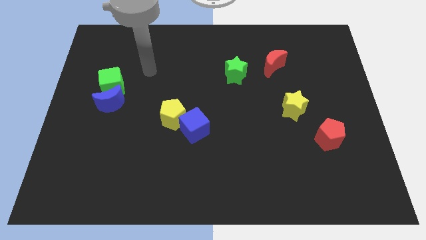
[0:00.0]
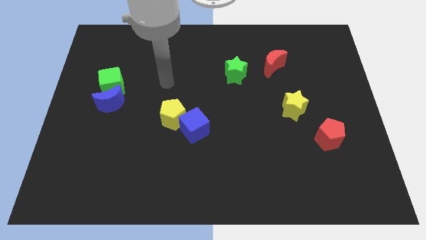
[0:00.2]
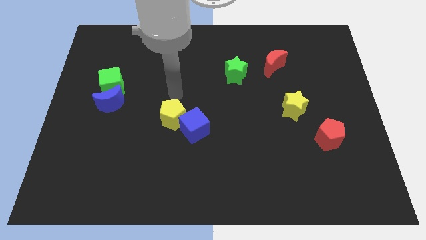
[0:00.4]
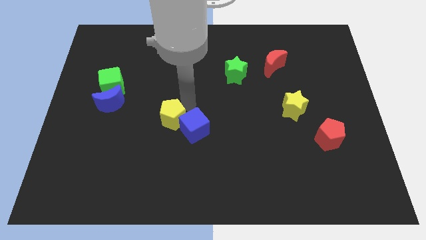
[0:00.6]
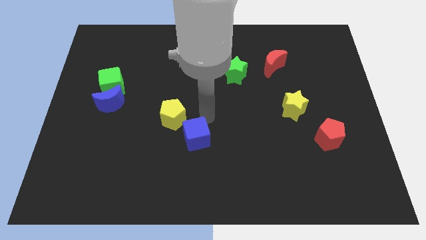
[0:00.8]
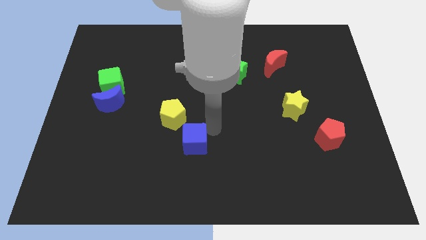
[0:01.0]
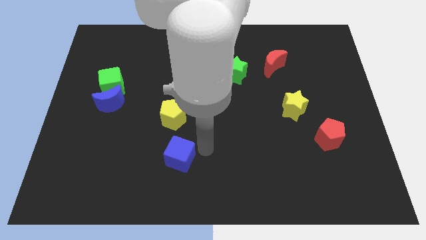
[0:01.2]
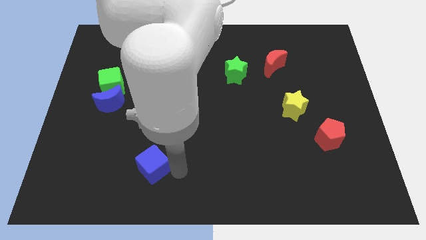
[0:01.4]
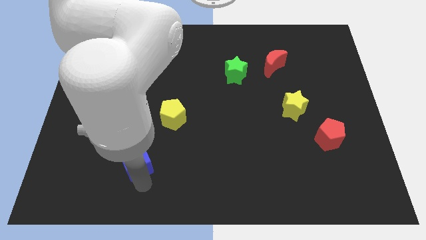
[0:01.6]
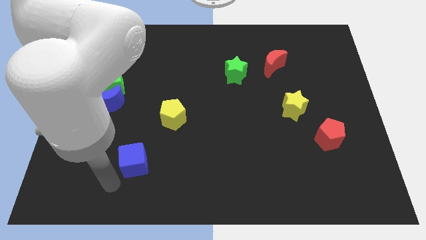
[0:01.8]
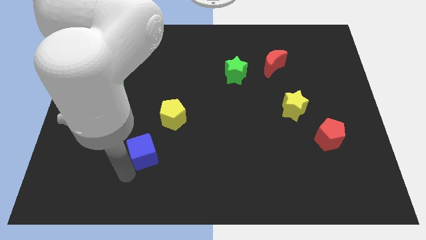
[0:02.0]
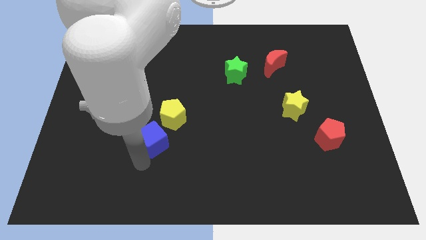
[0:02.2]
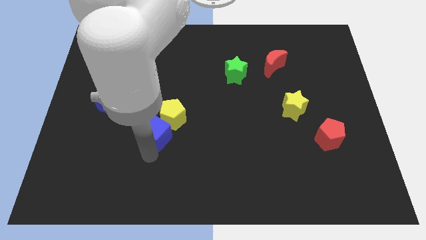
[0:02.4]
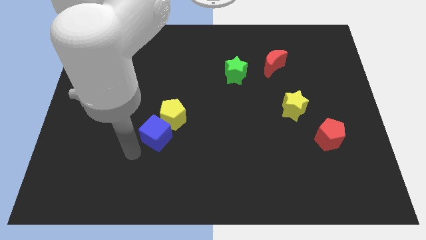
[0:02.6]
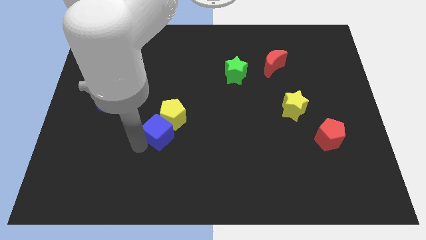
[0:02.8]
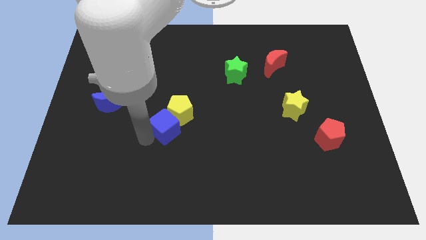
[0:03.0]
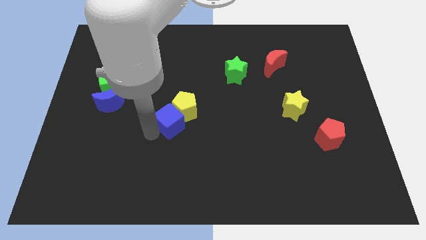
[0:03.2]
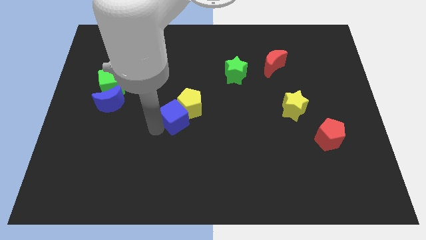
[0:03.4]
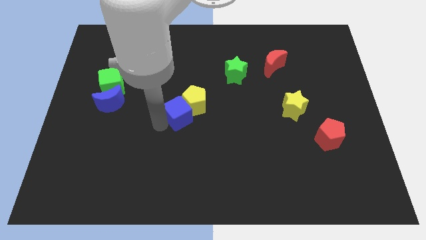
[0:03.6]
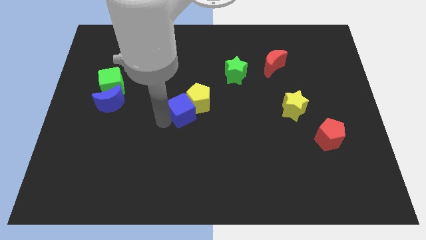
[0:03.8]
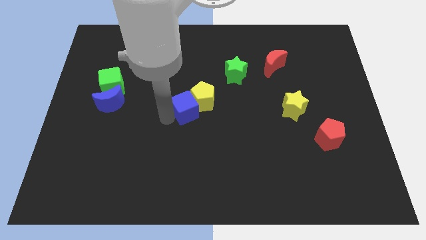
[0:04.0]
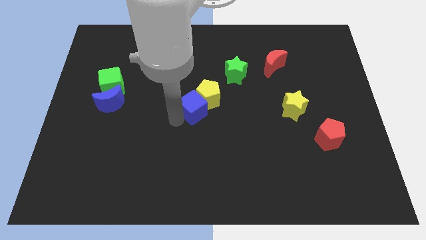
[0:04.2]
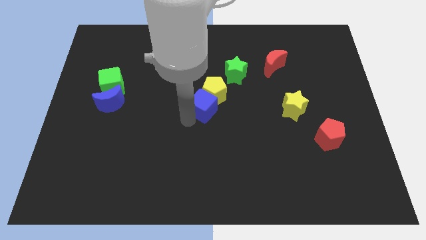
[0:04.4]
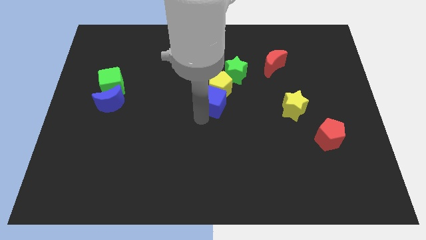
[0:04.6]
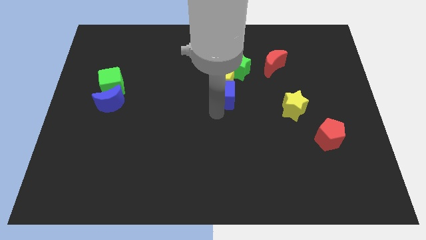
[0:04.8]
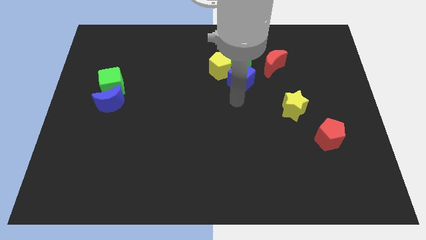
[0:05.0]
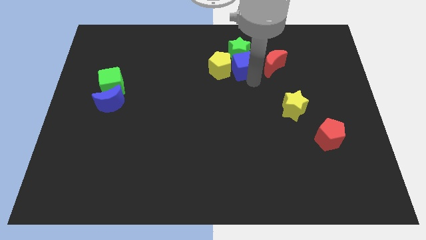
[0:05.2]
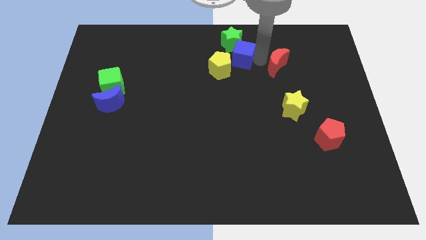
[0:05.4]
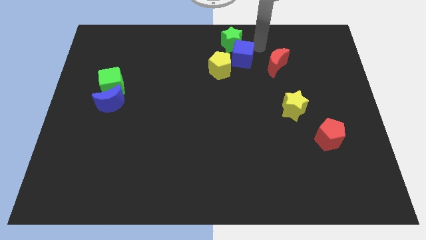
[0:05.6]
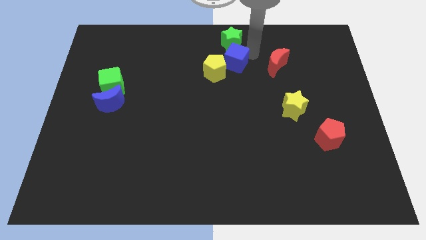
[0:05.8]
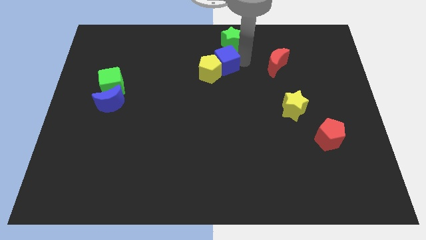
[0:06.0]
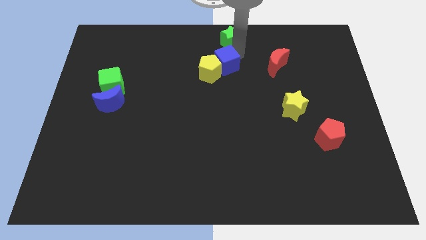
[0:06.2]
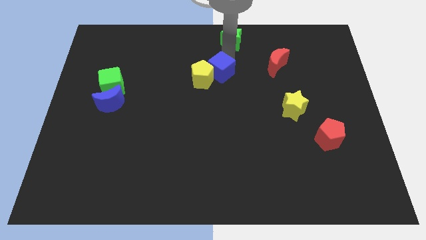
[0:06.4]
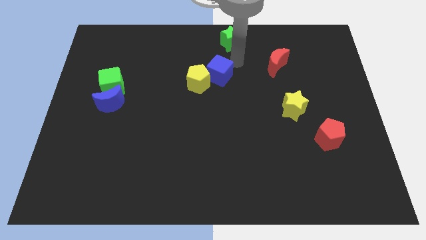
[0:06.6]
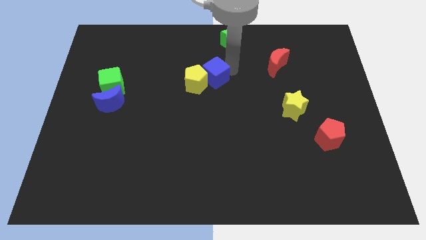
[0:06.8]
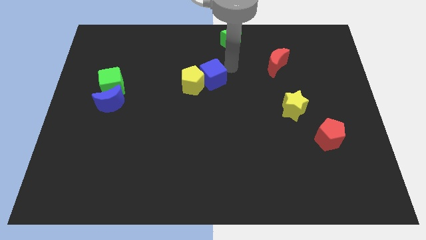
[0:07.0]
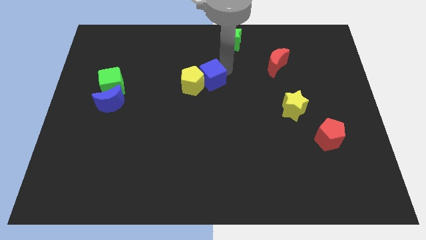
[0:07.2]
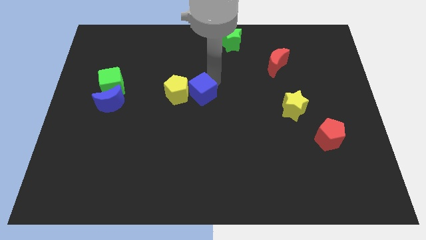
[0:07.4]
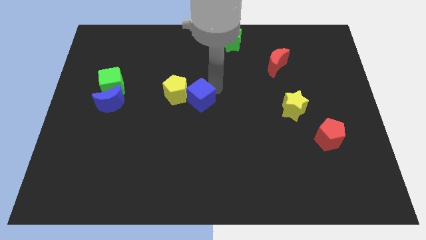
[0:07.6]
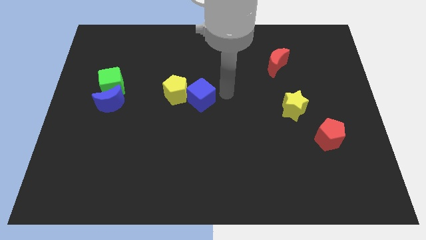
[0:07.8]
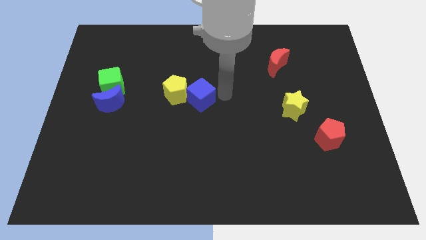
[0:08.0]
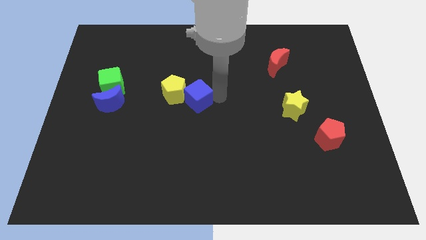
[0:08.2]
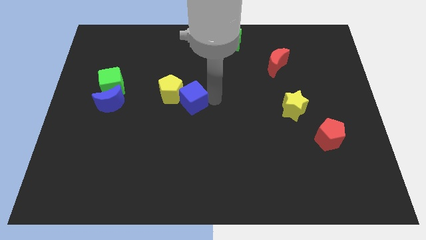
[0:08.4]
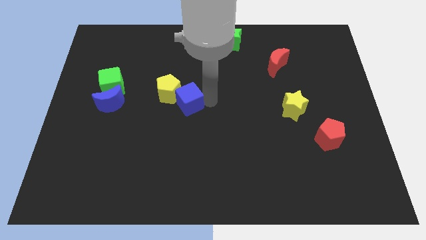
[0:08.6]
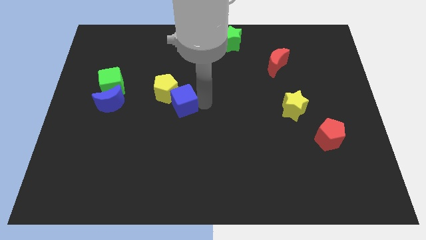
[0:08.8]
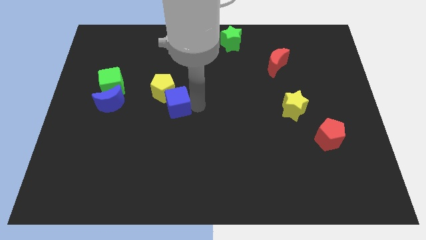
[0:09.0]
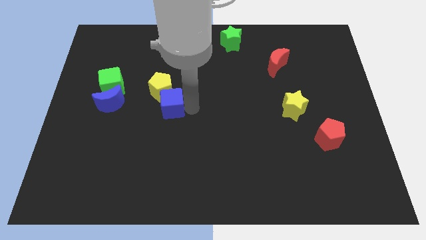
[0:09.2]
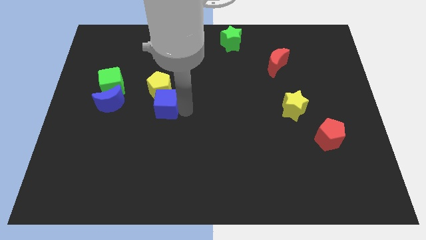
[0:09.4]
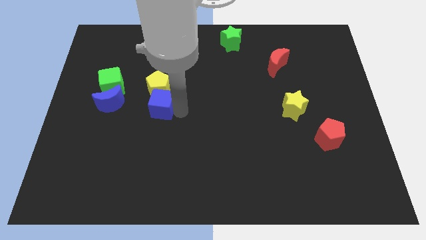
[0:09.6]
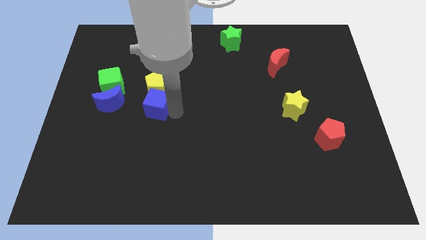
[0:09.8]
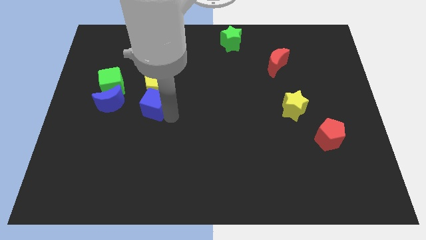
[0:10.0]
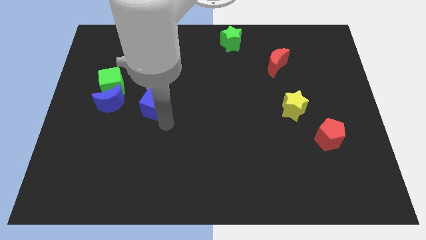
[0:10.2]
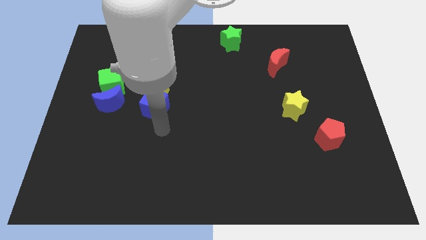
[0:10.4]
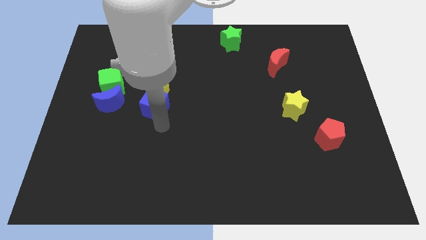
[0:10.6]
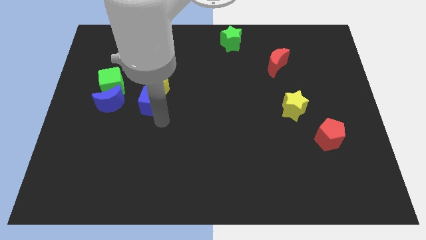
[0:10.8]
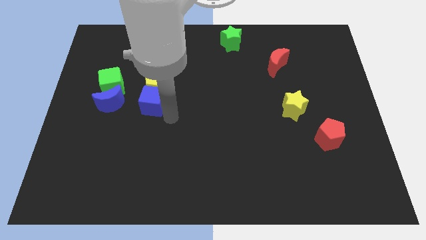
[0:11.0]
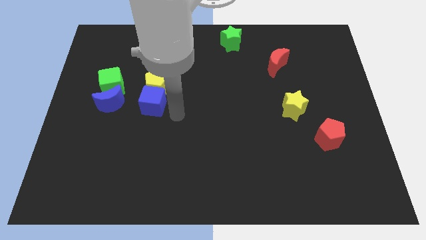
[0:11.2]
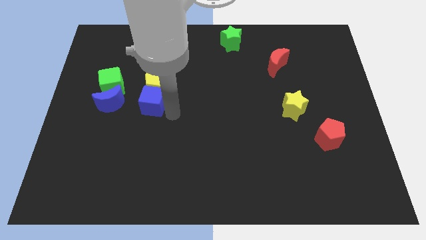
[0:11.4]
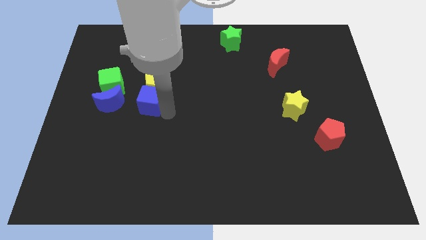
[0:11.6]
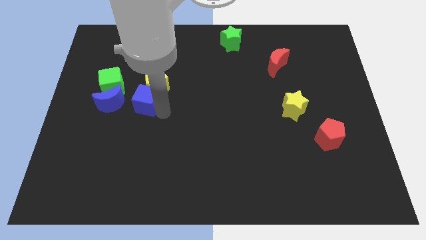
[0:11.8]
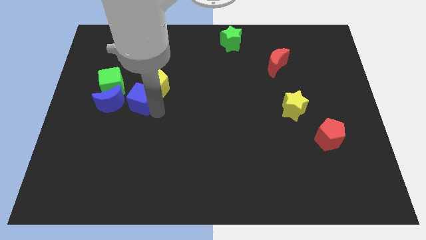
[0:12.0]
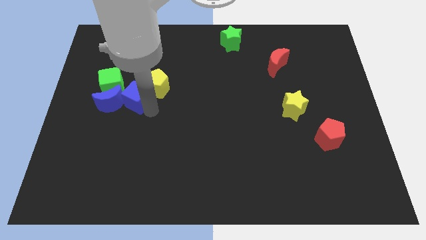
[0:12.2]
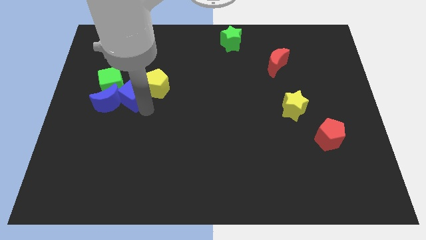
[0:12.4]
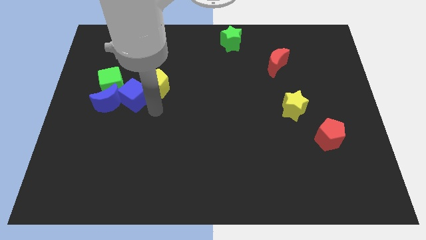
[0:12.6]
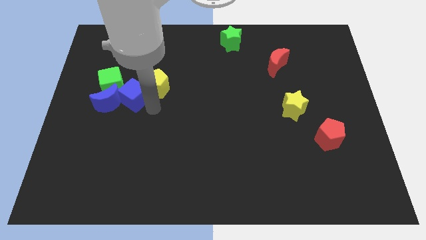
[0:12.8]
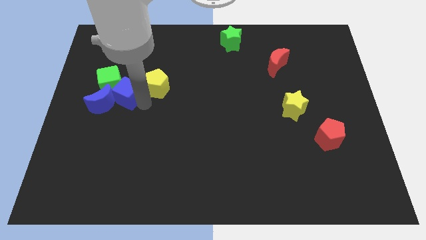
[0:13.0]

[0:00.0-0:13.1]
move the blue cube to the green cube
